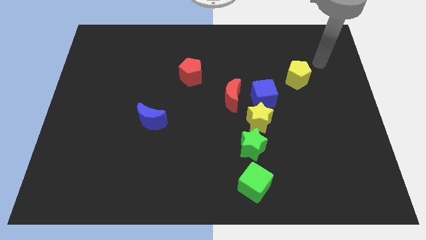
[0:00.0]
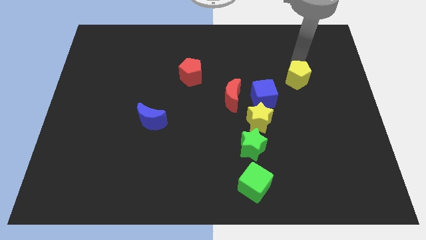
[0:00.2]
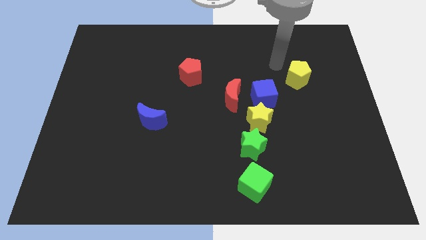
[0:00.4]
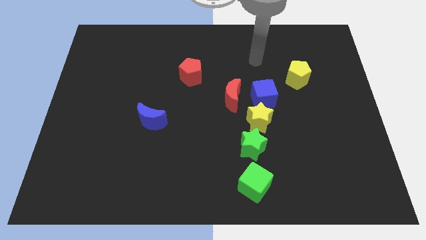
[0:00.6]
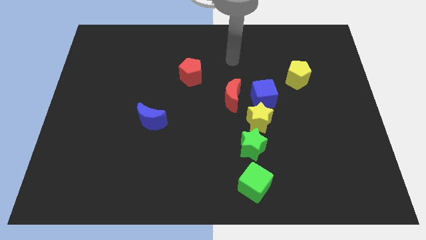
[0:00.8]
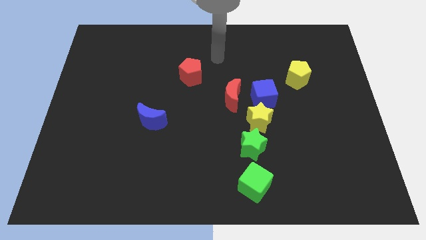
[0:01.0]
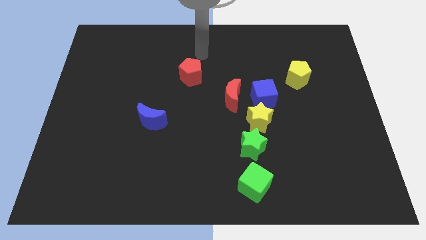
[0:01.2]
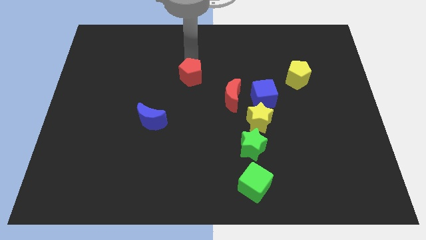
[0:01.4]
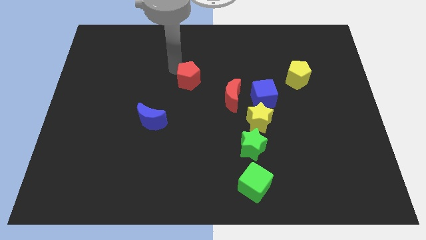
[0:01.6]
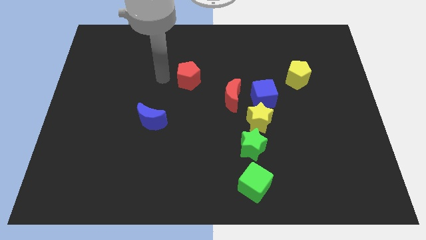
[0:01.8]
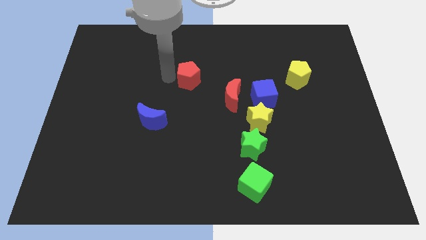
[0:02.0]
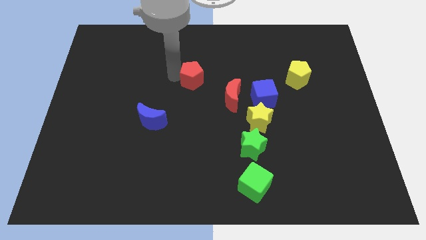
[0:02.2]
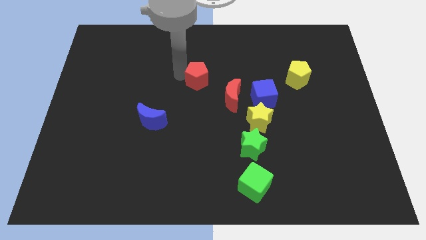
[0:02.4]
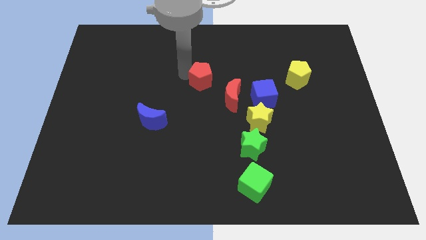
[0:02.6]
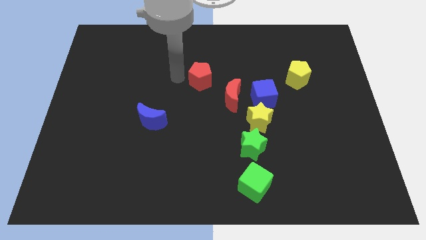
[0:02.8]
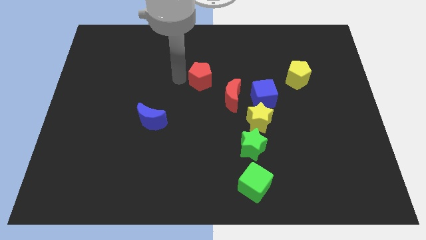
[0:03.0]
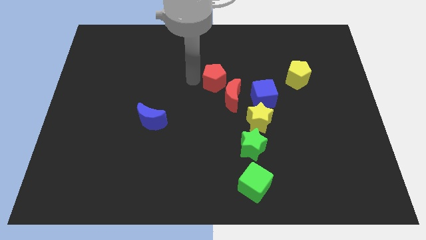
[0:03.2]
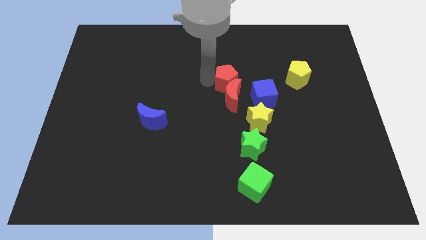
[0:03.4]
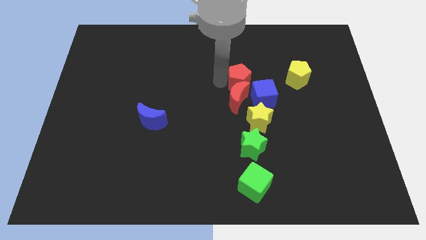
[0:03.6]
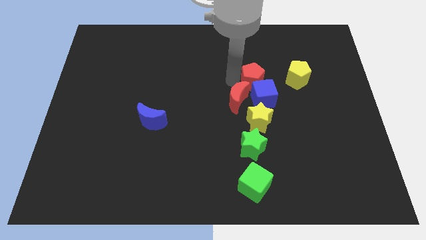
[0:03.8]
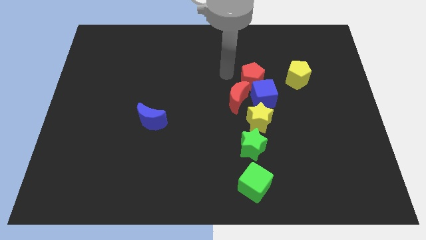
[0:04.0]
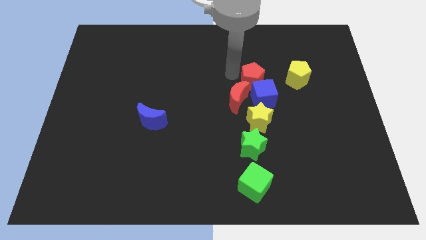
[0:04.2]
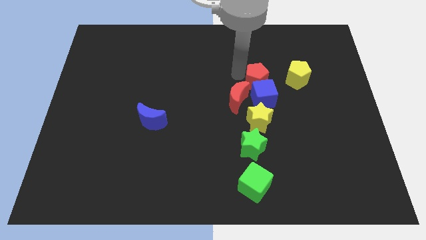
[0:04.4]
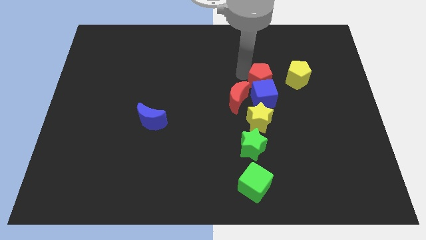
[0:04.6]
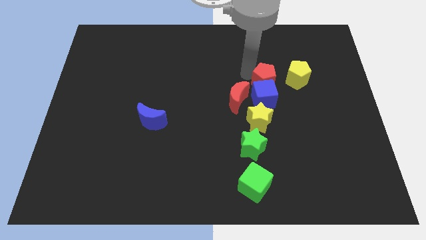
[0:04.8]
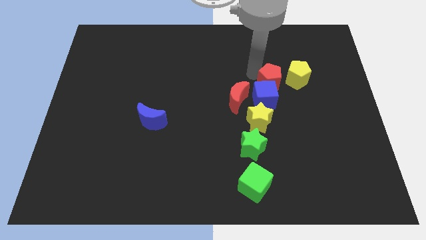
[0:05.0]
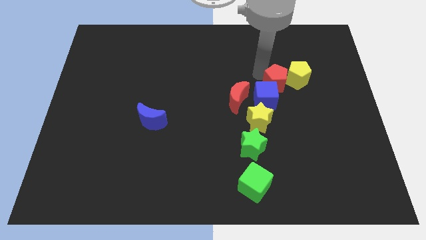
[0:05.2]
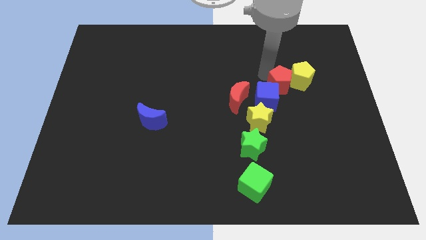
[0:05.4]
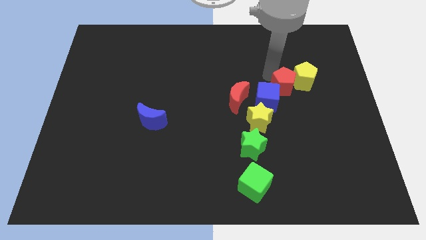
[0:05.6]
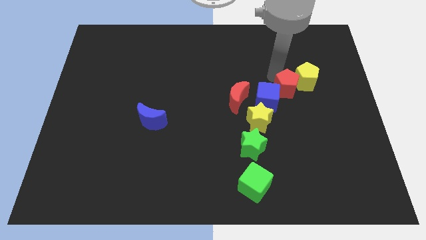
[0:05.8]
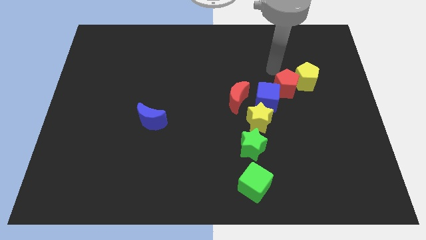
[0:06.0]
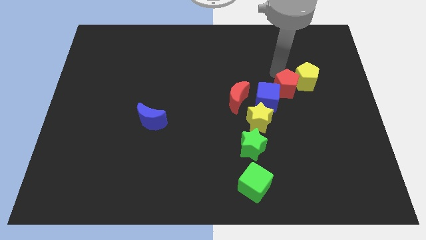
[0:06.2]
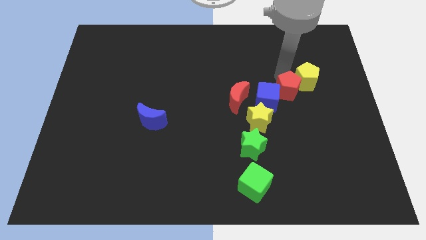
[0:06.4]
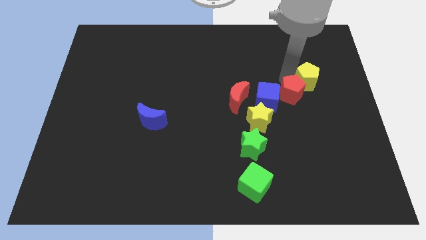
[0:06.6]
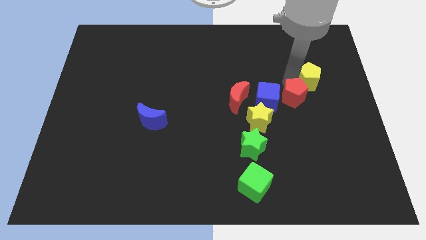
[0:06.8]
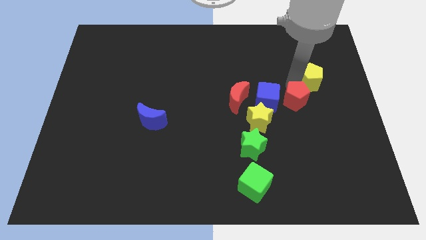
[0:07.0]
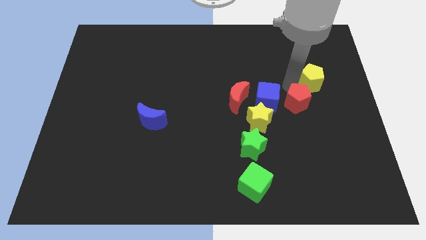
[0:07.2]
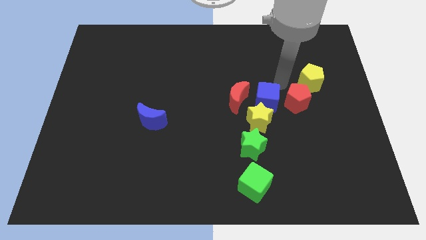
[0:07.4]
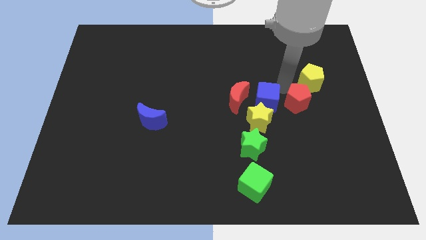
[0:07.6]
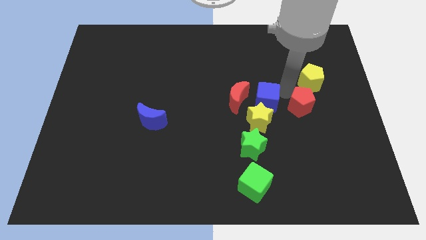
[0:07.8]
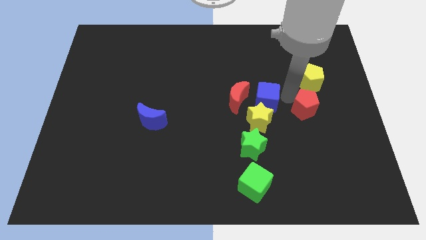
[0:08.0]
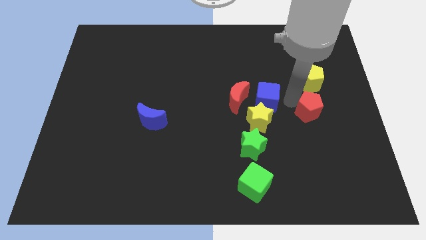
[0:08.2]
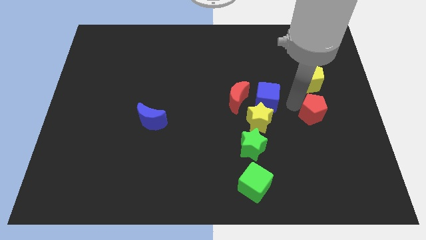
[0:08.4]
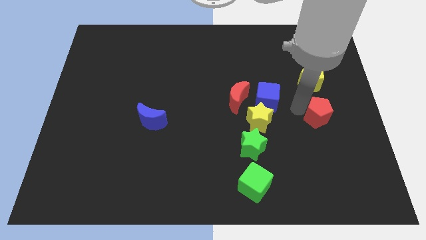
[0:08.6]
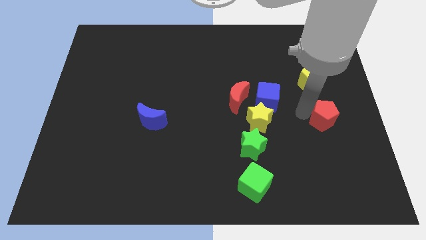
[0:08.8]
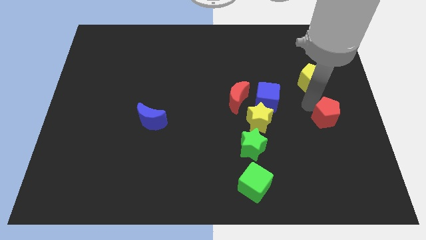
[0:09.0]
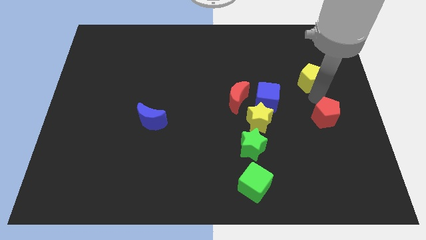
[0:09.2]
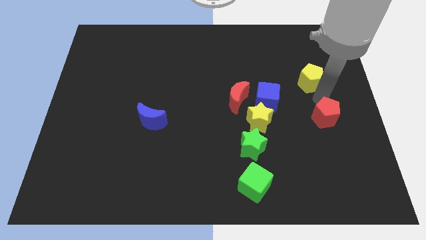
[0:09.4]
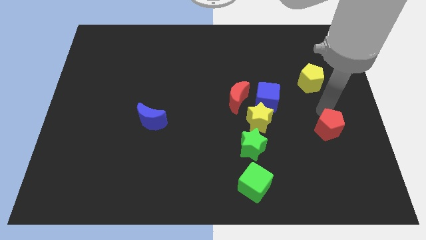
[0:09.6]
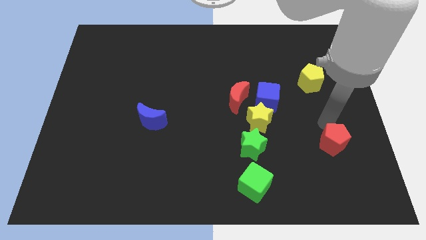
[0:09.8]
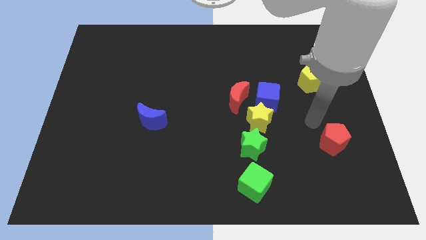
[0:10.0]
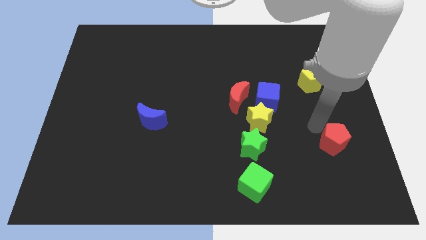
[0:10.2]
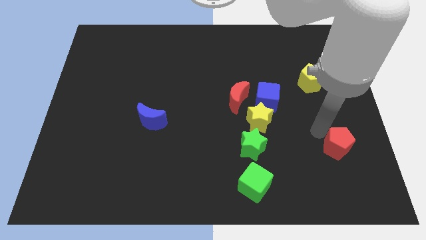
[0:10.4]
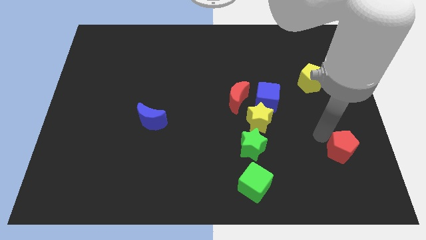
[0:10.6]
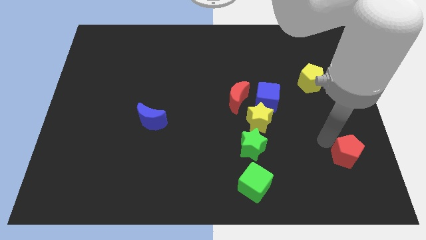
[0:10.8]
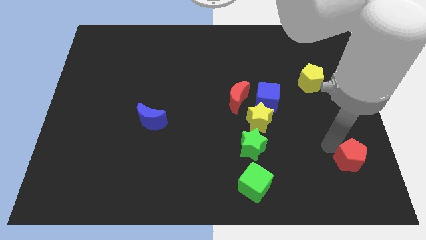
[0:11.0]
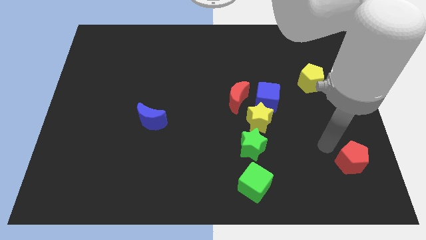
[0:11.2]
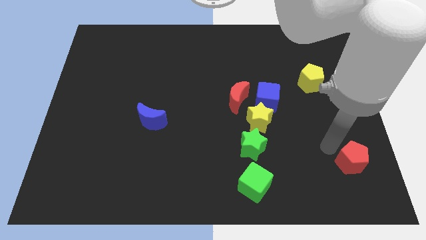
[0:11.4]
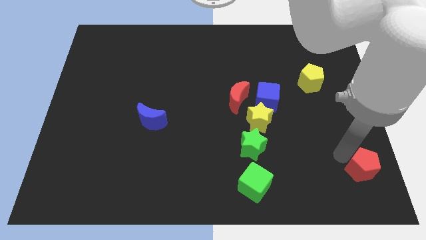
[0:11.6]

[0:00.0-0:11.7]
put the red pentagon to the lower right corner

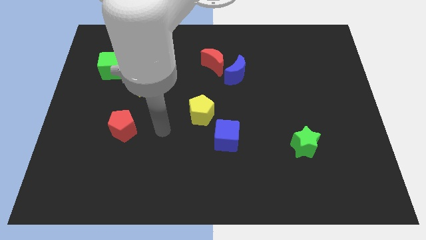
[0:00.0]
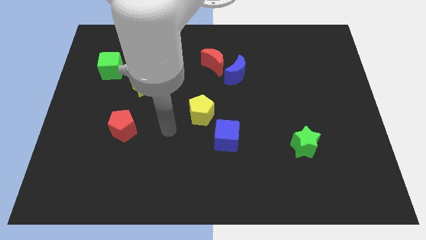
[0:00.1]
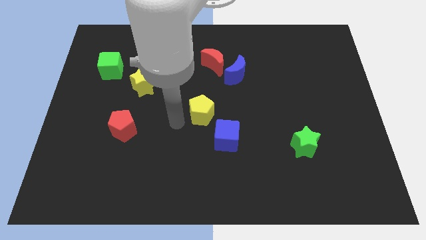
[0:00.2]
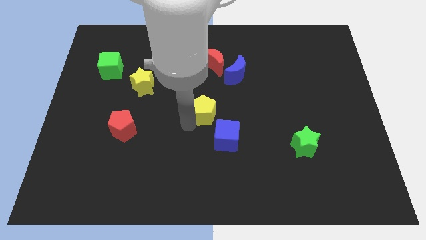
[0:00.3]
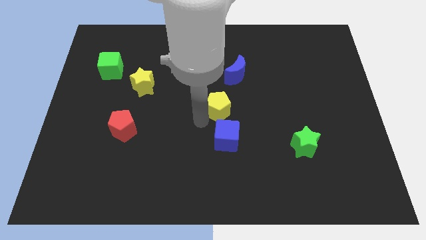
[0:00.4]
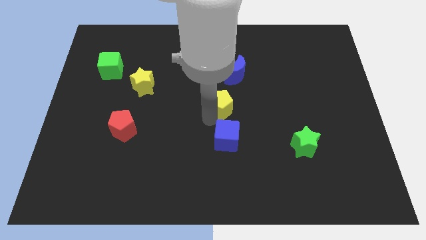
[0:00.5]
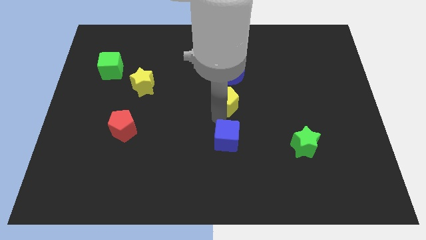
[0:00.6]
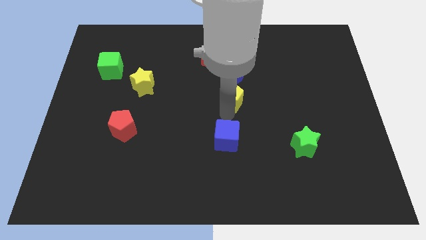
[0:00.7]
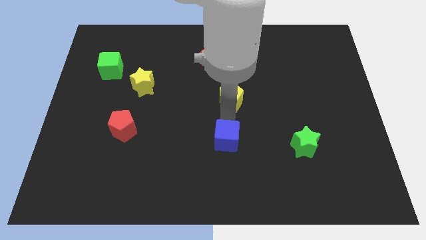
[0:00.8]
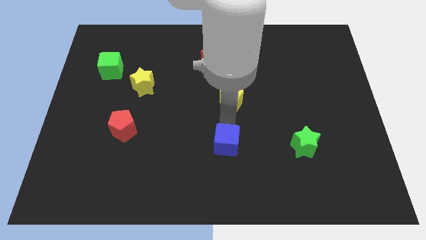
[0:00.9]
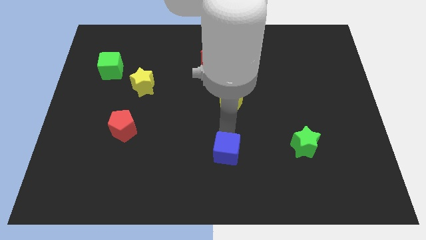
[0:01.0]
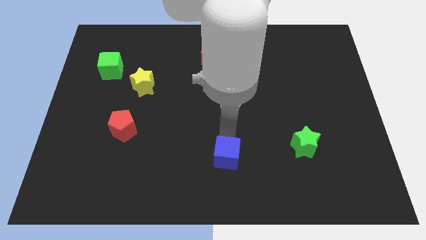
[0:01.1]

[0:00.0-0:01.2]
push the blue cube to the bottom side
